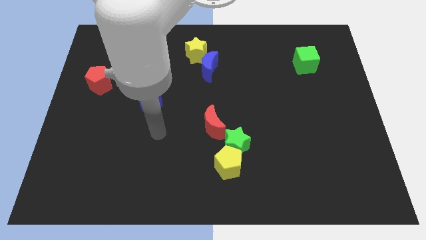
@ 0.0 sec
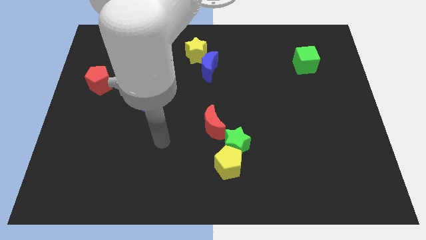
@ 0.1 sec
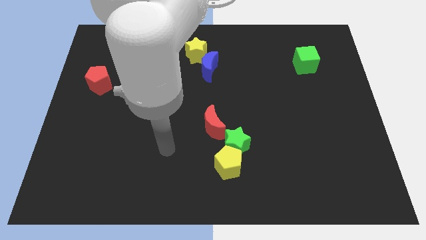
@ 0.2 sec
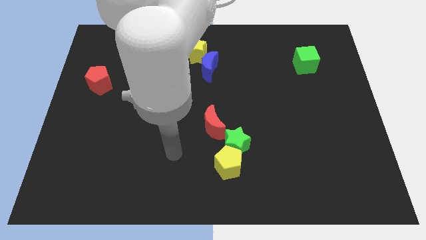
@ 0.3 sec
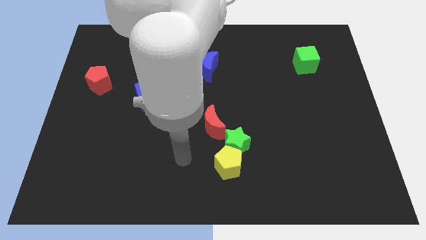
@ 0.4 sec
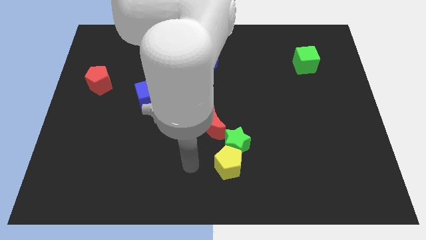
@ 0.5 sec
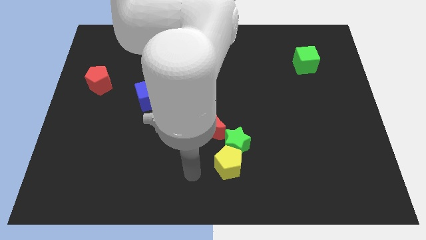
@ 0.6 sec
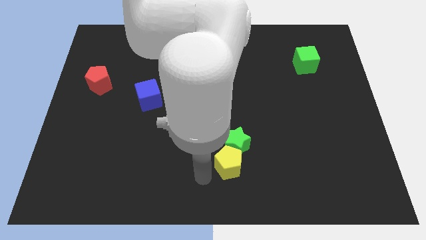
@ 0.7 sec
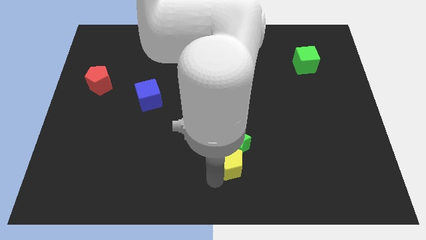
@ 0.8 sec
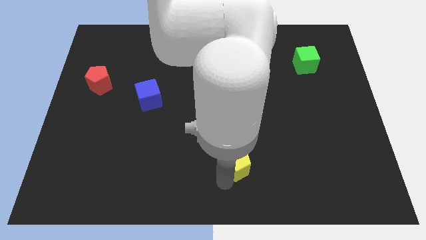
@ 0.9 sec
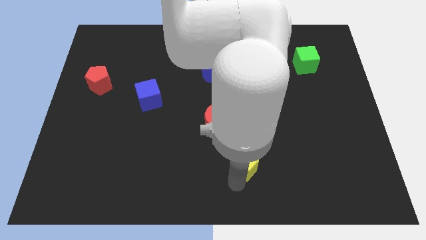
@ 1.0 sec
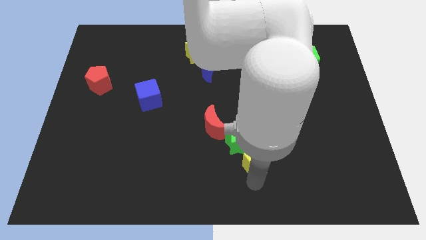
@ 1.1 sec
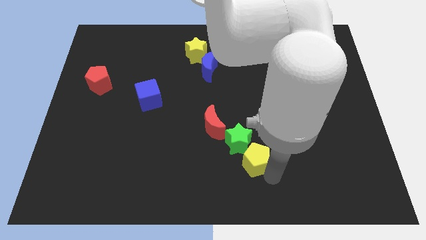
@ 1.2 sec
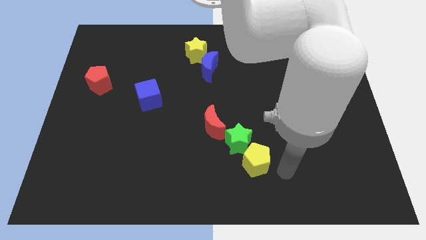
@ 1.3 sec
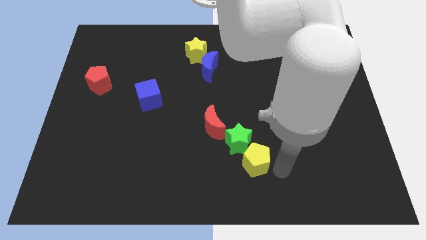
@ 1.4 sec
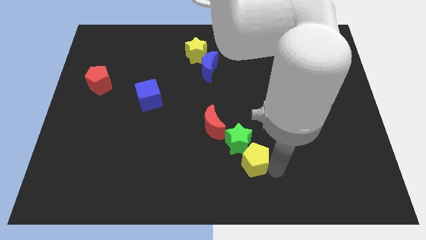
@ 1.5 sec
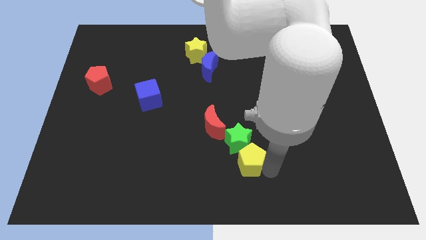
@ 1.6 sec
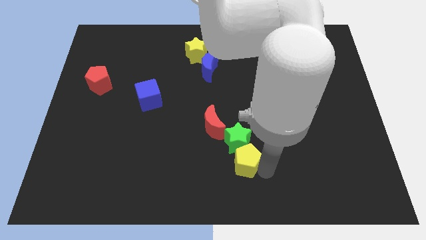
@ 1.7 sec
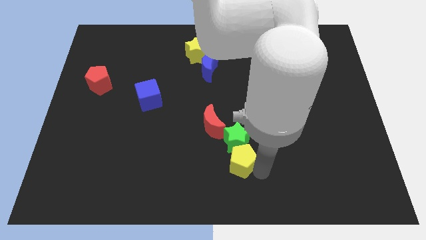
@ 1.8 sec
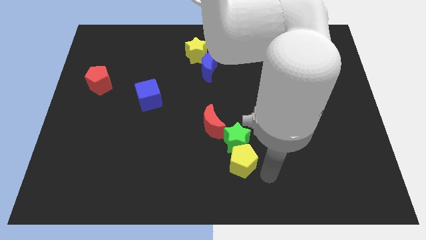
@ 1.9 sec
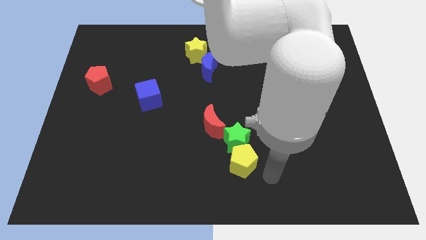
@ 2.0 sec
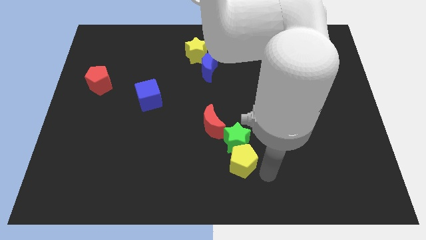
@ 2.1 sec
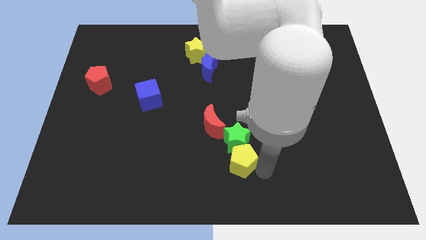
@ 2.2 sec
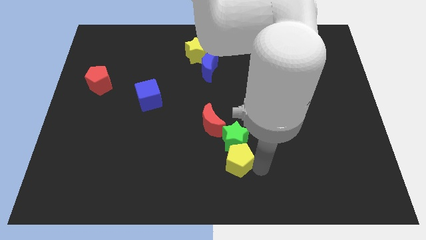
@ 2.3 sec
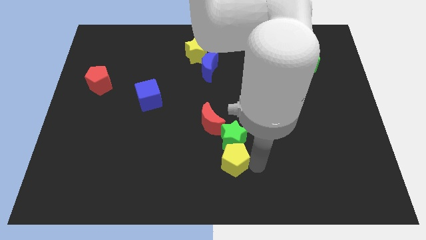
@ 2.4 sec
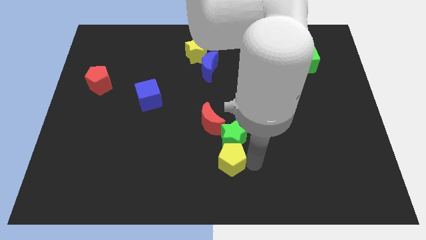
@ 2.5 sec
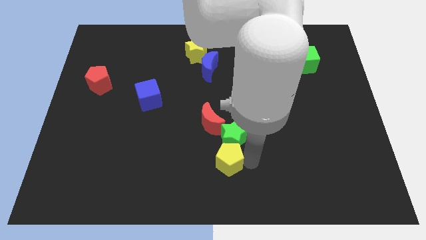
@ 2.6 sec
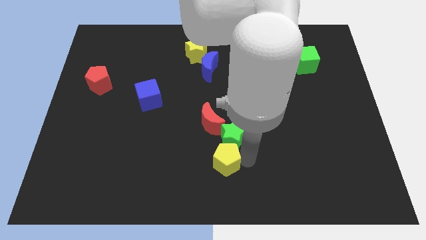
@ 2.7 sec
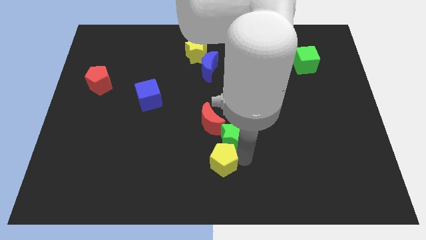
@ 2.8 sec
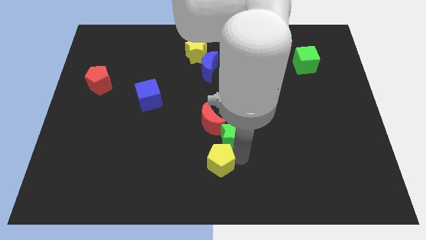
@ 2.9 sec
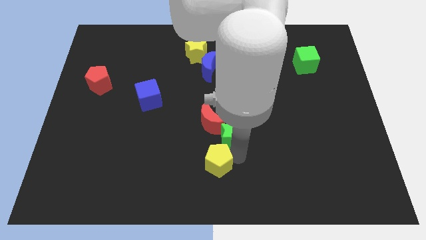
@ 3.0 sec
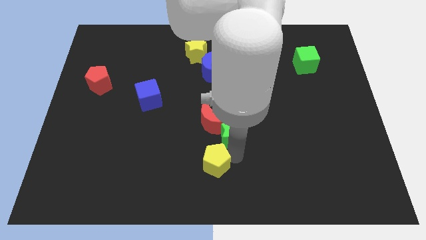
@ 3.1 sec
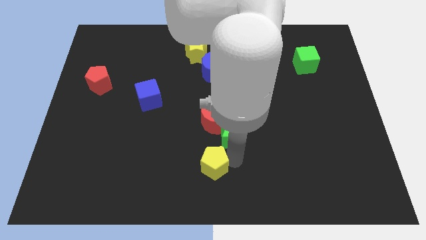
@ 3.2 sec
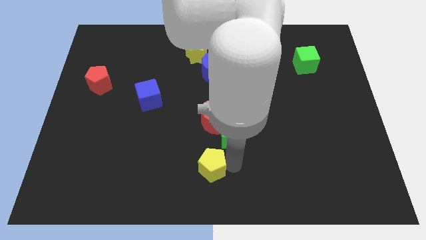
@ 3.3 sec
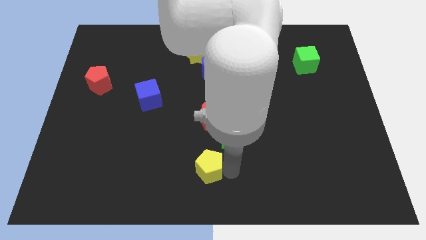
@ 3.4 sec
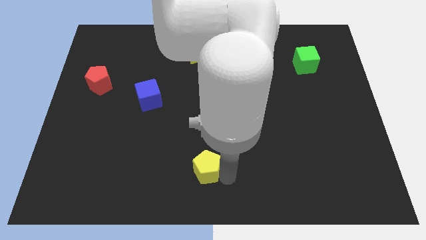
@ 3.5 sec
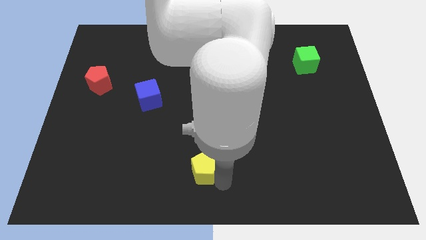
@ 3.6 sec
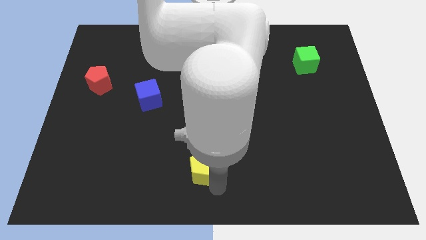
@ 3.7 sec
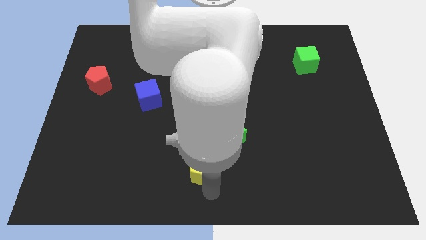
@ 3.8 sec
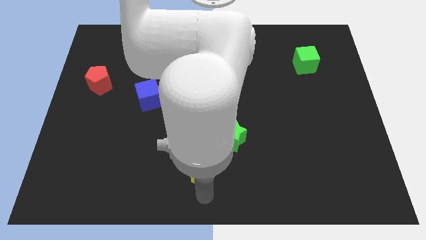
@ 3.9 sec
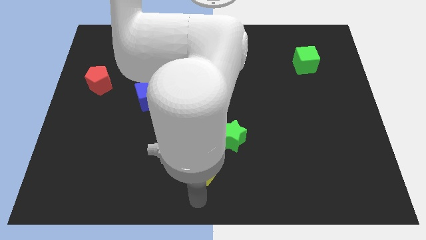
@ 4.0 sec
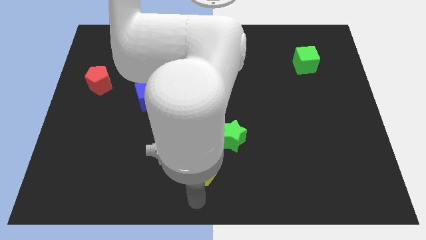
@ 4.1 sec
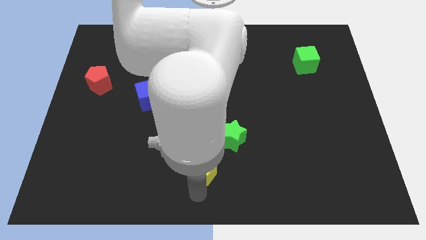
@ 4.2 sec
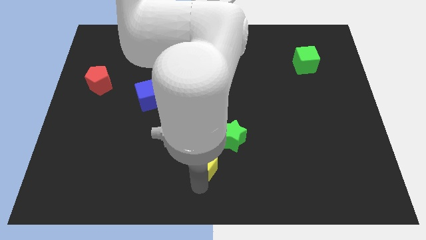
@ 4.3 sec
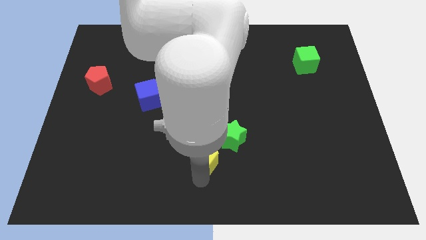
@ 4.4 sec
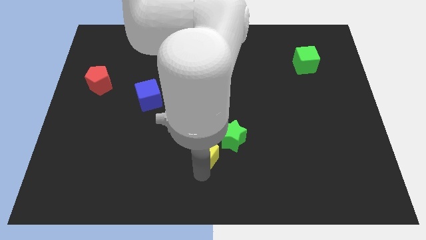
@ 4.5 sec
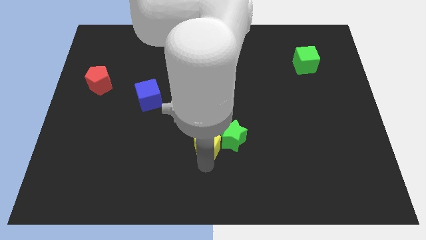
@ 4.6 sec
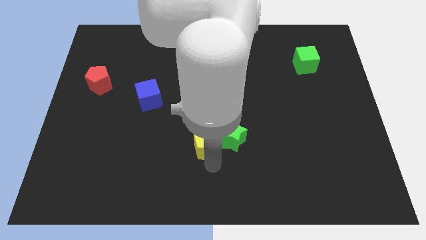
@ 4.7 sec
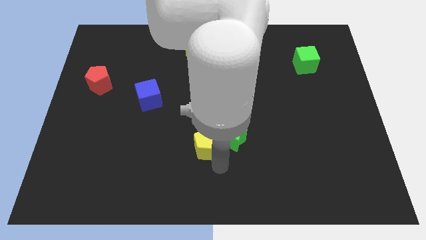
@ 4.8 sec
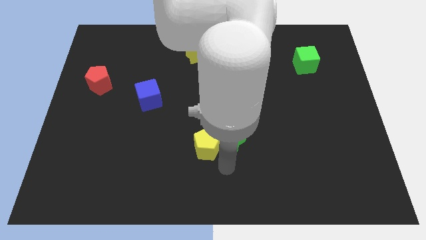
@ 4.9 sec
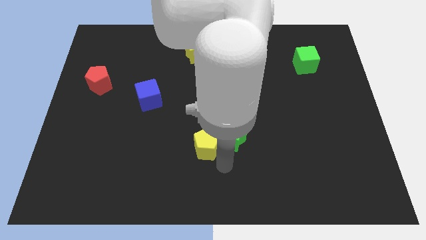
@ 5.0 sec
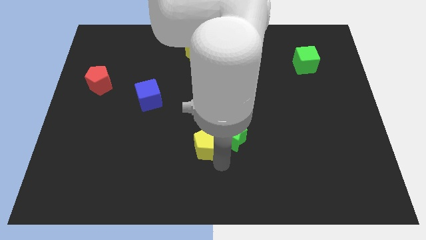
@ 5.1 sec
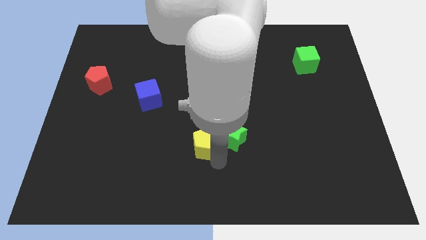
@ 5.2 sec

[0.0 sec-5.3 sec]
move the yellow pentagon diagonally upwards and left slightly

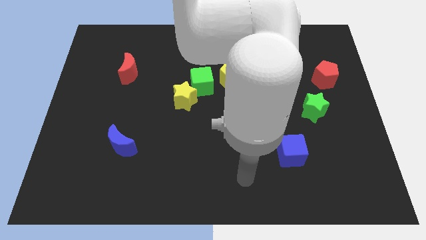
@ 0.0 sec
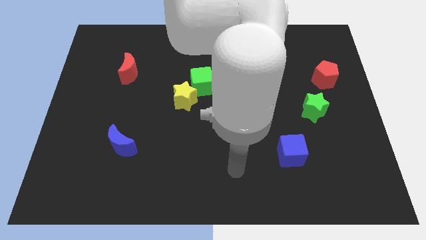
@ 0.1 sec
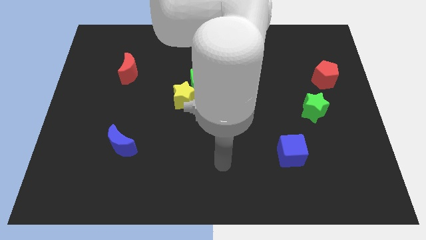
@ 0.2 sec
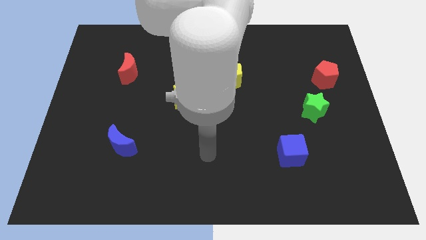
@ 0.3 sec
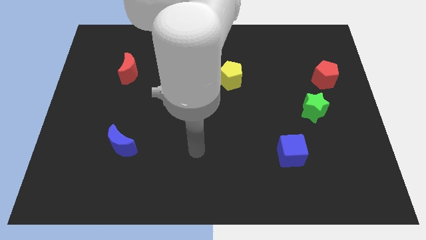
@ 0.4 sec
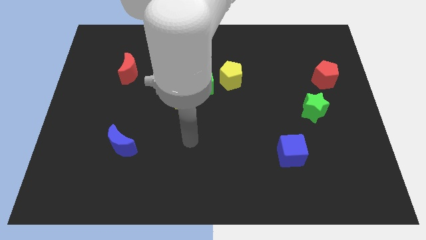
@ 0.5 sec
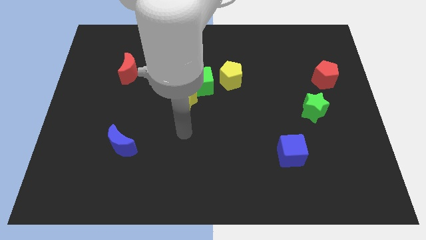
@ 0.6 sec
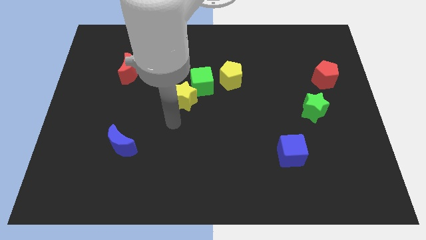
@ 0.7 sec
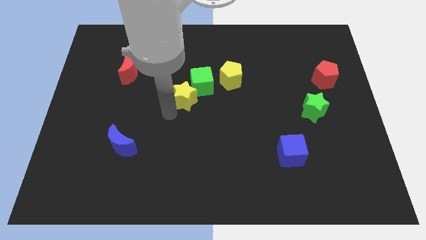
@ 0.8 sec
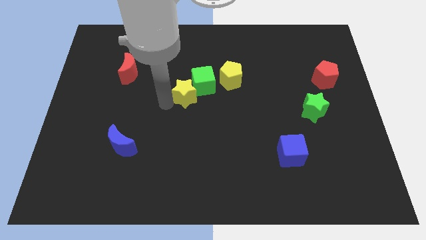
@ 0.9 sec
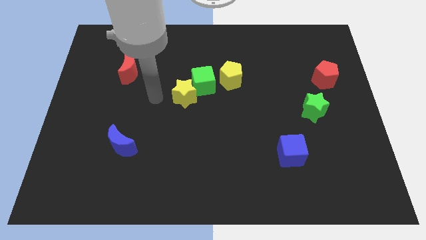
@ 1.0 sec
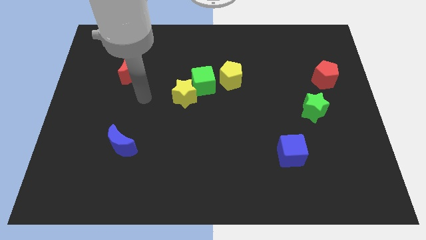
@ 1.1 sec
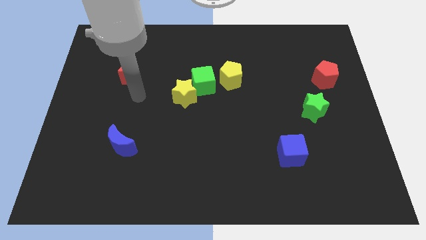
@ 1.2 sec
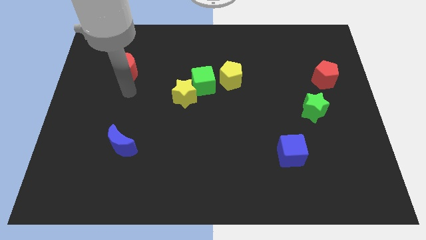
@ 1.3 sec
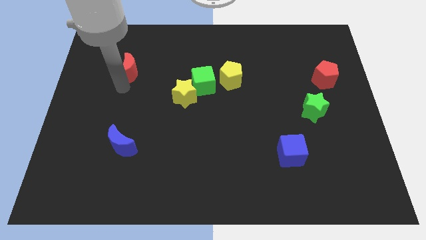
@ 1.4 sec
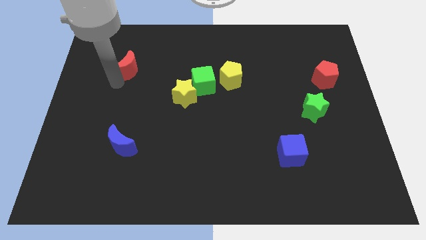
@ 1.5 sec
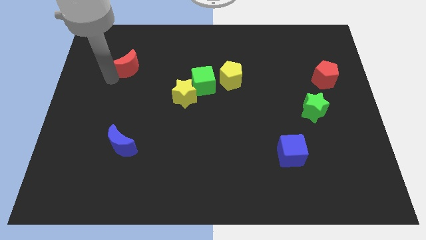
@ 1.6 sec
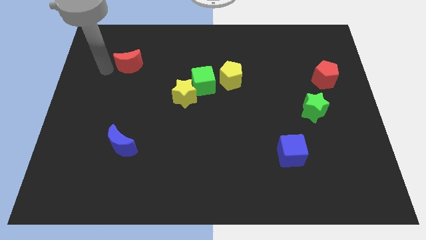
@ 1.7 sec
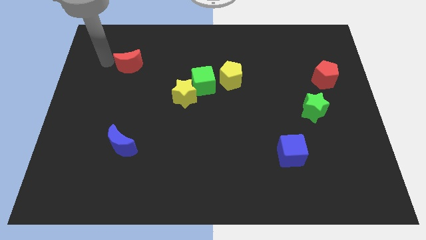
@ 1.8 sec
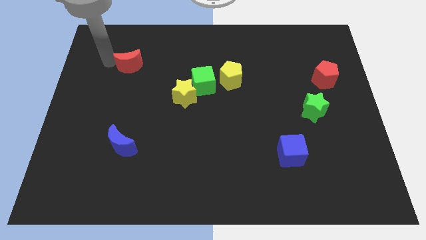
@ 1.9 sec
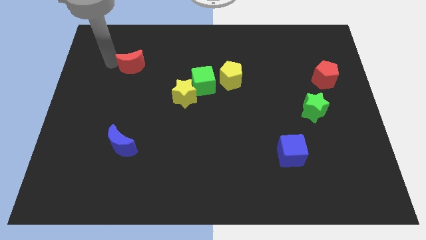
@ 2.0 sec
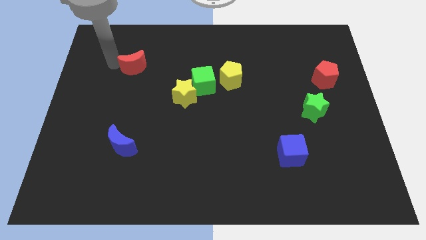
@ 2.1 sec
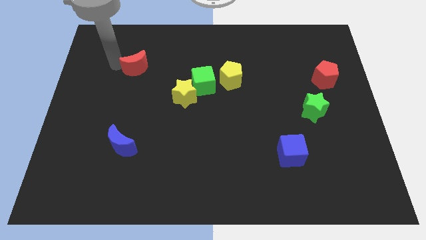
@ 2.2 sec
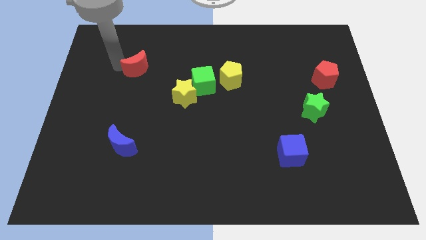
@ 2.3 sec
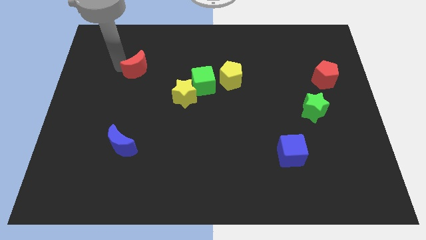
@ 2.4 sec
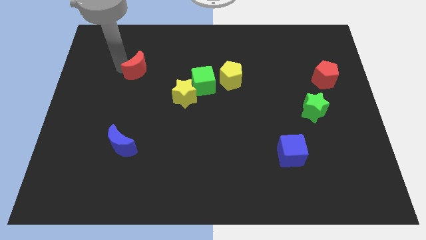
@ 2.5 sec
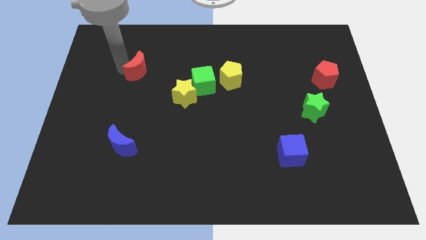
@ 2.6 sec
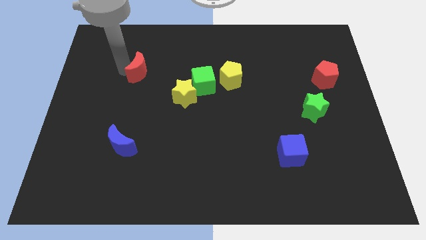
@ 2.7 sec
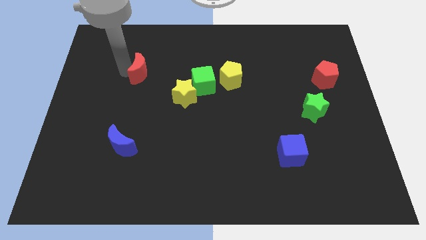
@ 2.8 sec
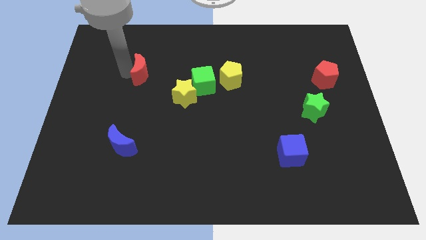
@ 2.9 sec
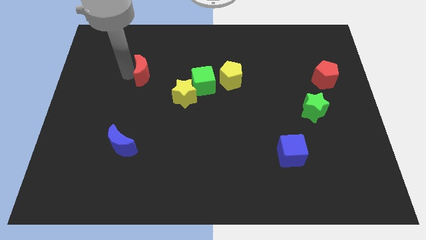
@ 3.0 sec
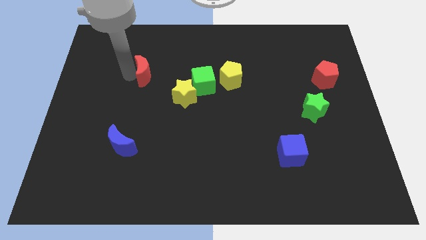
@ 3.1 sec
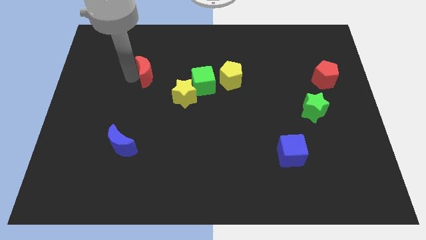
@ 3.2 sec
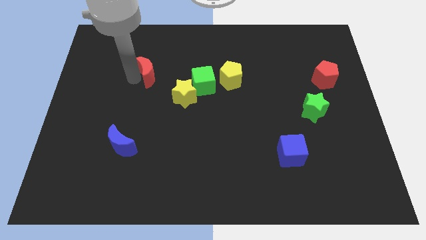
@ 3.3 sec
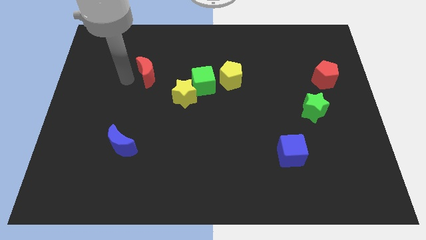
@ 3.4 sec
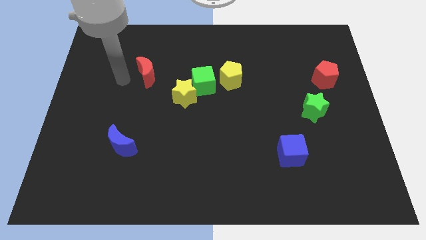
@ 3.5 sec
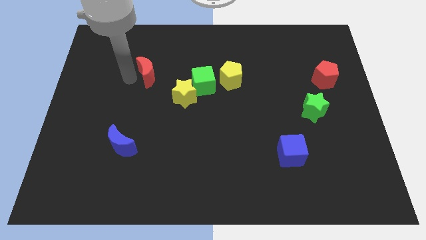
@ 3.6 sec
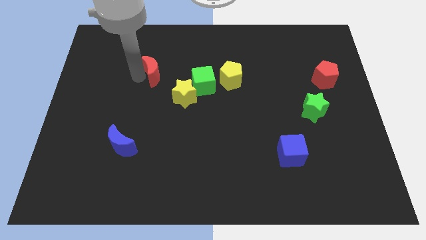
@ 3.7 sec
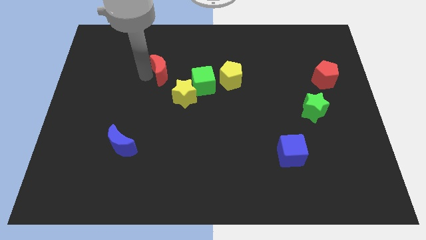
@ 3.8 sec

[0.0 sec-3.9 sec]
move the red moon somewhat right
